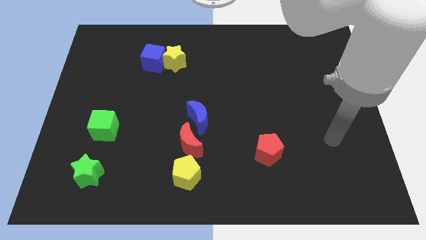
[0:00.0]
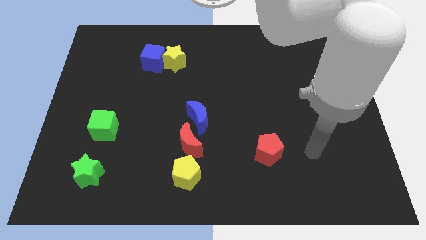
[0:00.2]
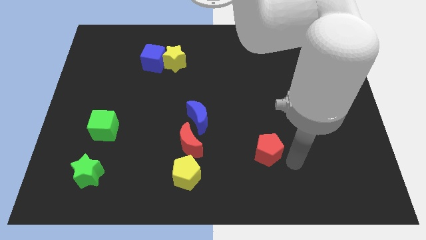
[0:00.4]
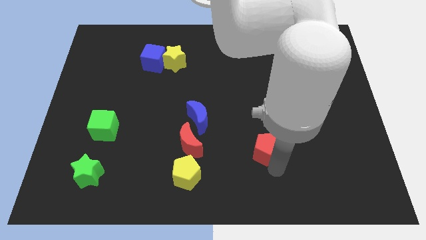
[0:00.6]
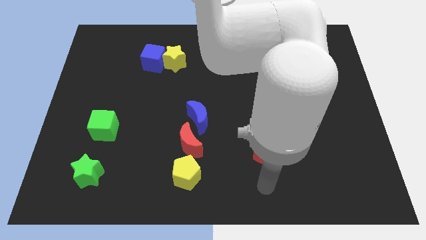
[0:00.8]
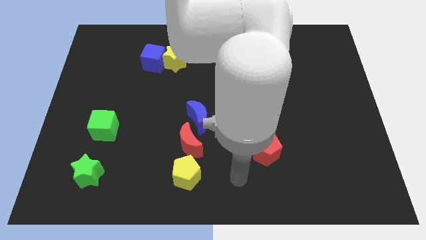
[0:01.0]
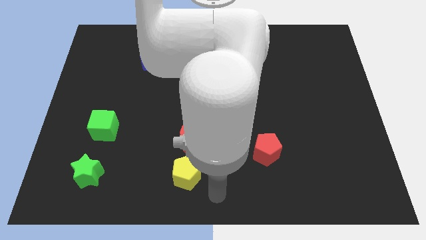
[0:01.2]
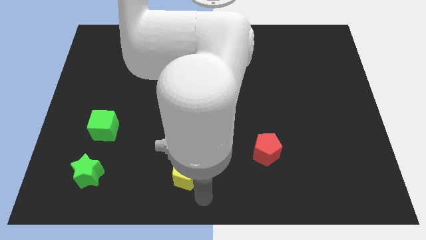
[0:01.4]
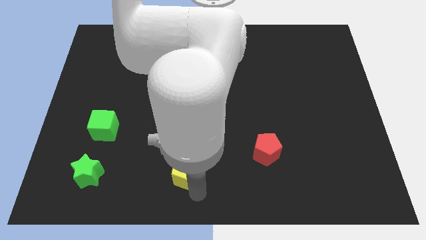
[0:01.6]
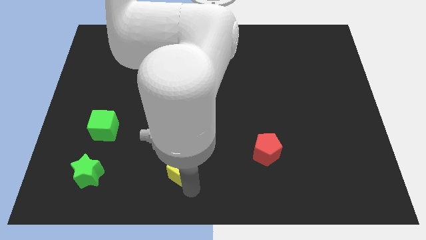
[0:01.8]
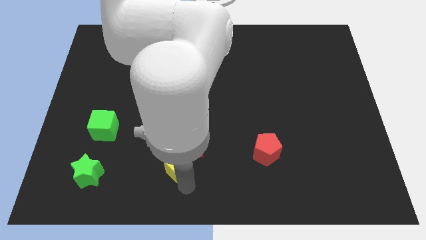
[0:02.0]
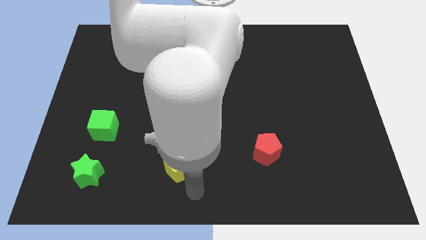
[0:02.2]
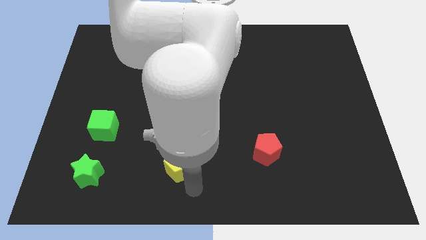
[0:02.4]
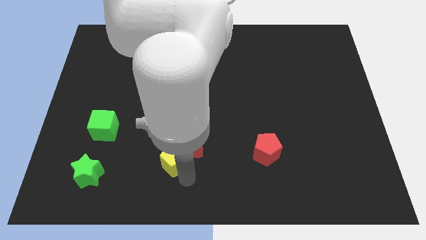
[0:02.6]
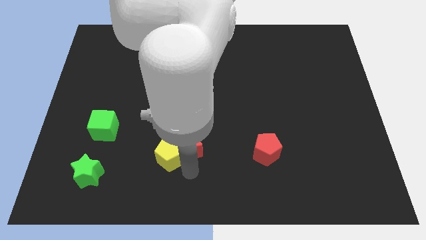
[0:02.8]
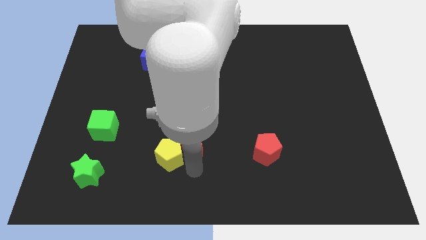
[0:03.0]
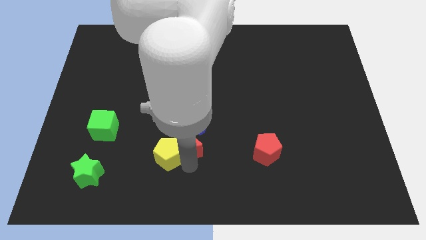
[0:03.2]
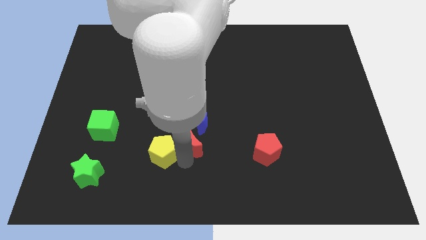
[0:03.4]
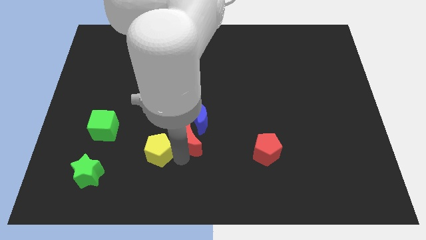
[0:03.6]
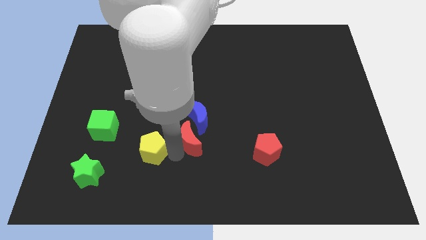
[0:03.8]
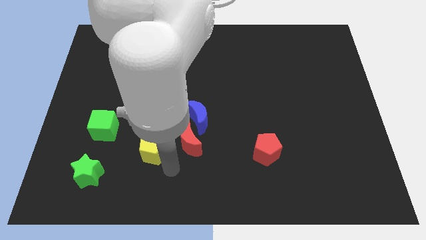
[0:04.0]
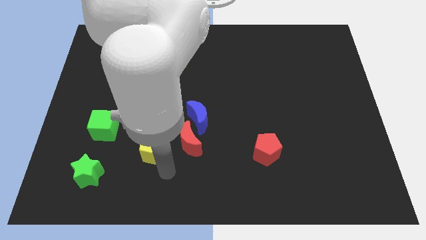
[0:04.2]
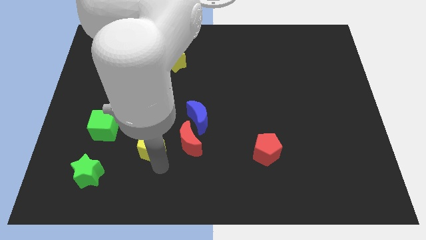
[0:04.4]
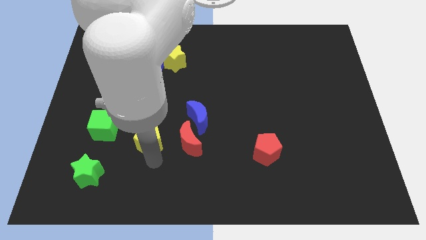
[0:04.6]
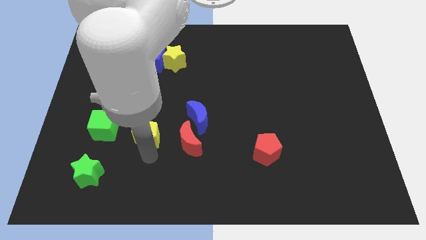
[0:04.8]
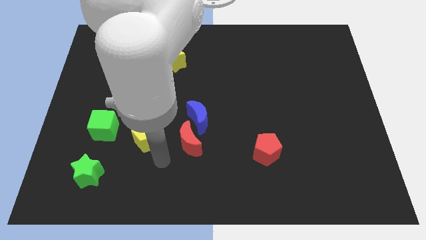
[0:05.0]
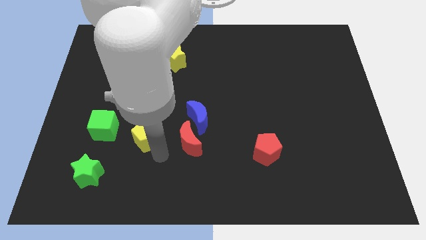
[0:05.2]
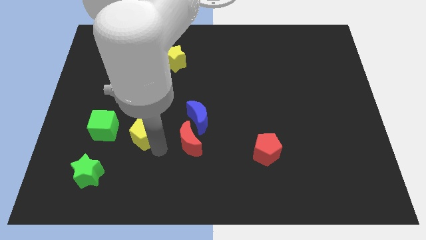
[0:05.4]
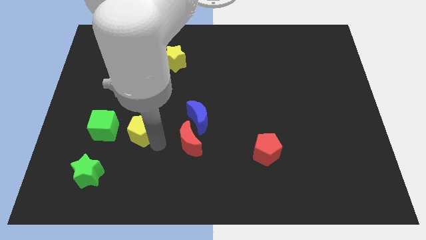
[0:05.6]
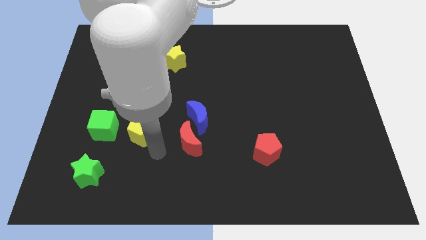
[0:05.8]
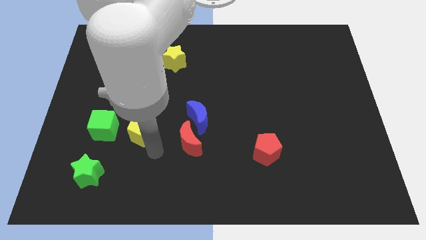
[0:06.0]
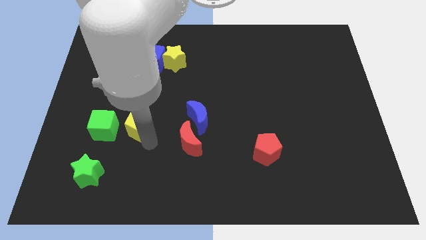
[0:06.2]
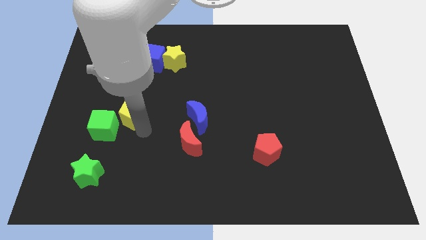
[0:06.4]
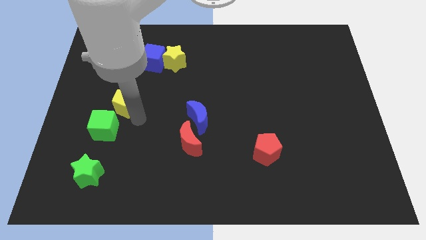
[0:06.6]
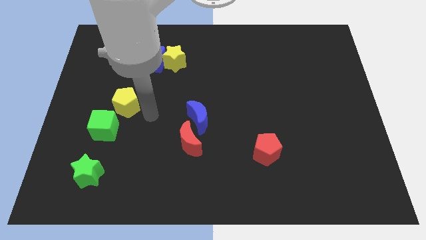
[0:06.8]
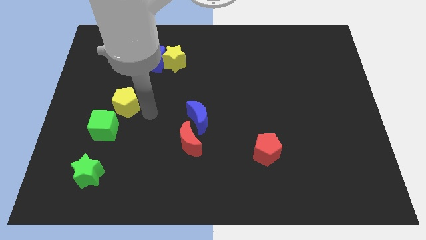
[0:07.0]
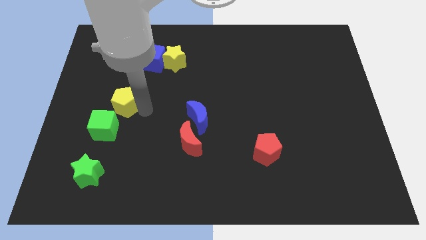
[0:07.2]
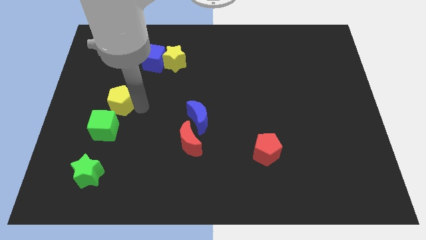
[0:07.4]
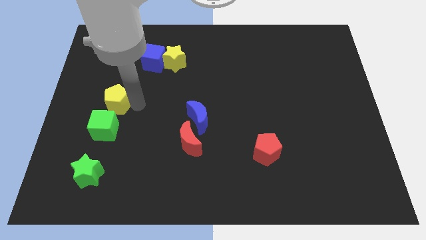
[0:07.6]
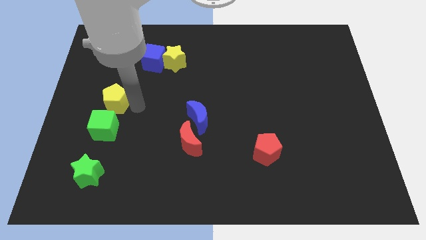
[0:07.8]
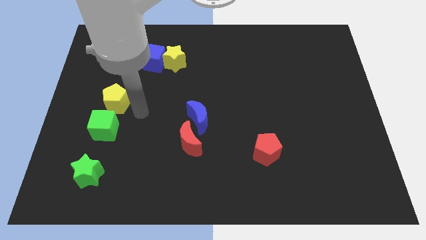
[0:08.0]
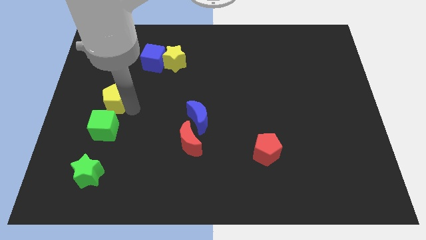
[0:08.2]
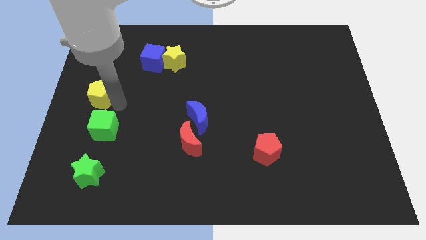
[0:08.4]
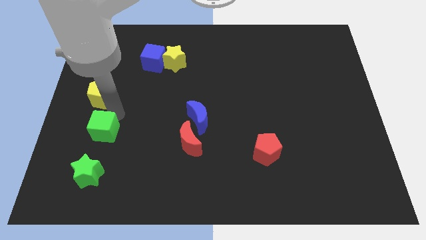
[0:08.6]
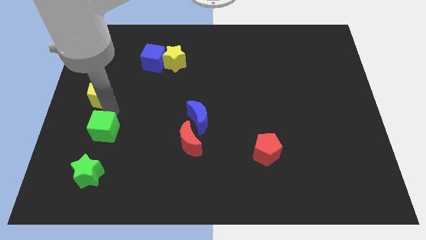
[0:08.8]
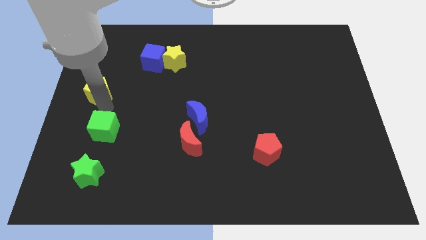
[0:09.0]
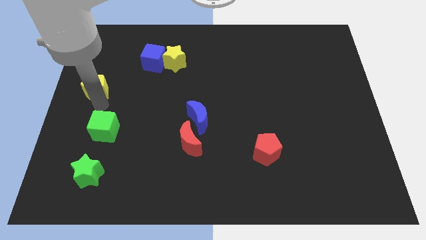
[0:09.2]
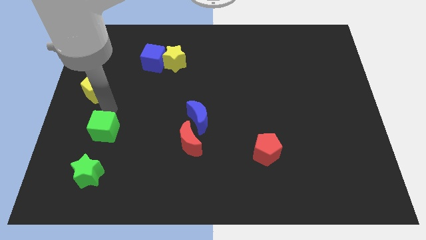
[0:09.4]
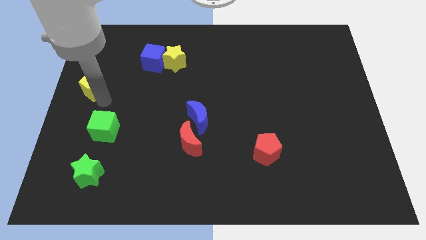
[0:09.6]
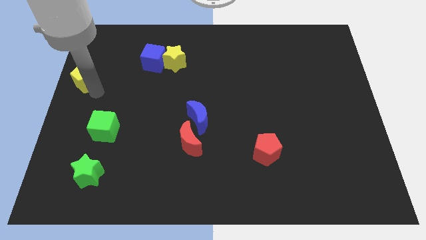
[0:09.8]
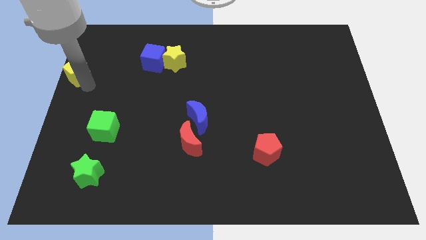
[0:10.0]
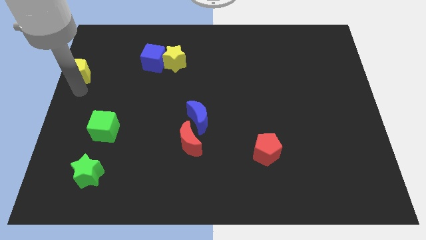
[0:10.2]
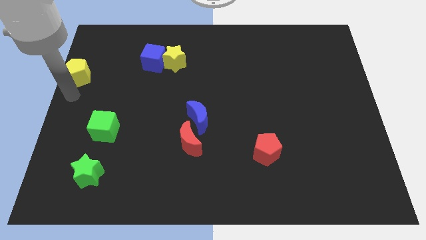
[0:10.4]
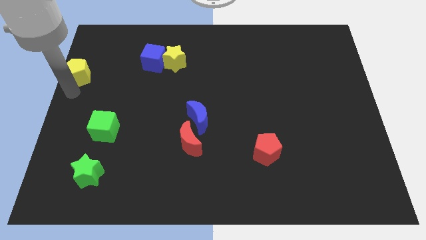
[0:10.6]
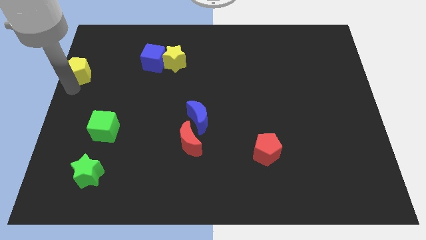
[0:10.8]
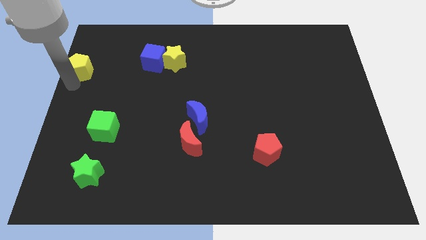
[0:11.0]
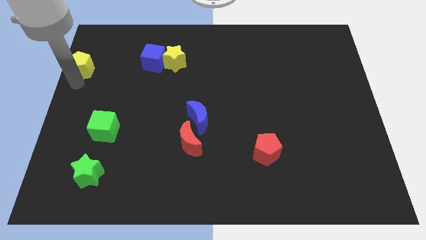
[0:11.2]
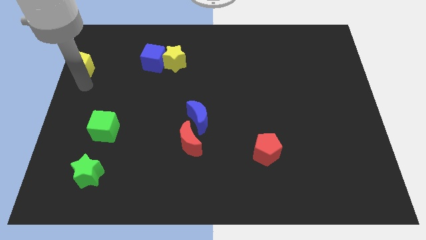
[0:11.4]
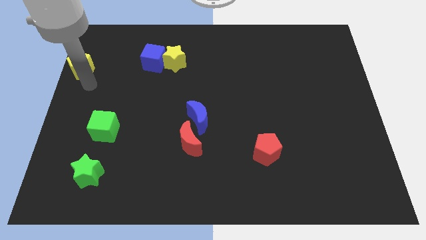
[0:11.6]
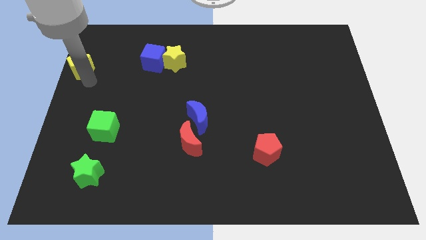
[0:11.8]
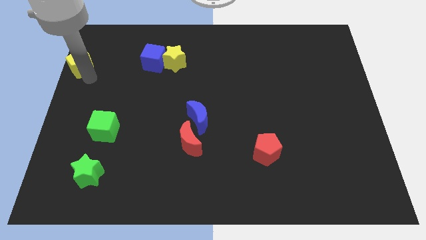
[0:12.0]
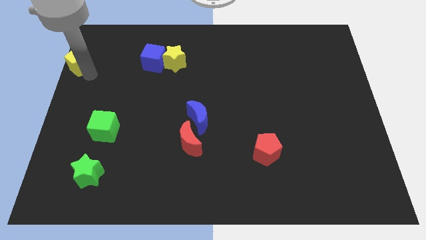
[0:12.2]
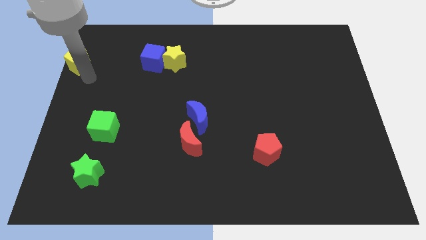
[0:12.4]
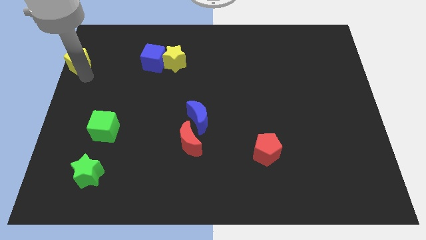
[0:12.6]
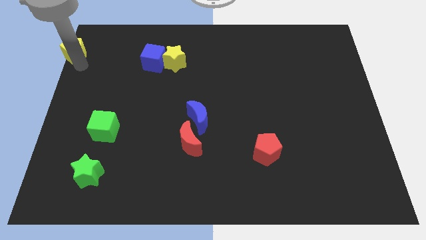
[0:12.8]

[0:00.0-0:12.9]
move the yellow pentagon to the upper left corner

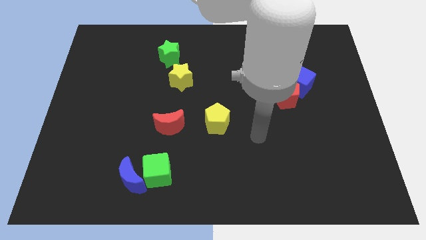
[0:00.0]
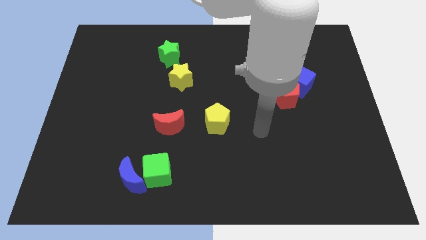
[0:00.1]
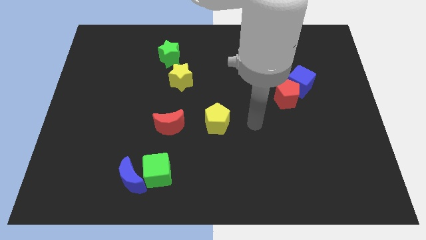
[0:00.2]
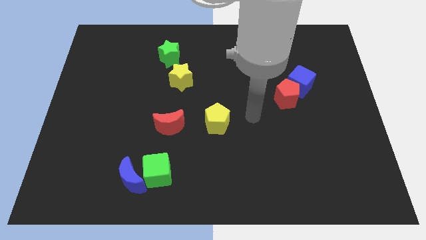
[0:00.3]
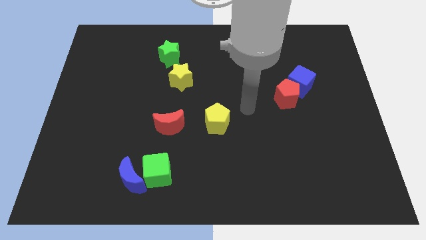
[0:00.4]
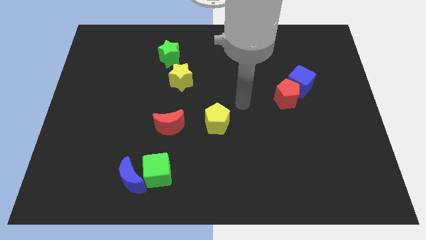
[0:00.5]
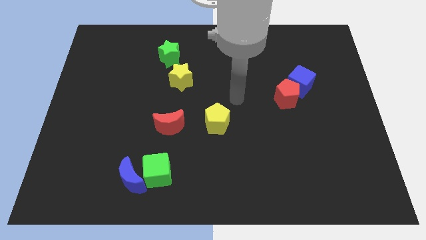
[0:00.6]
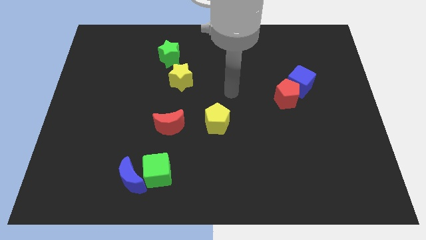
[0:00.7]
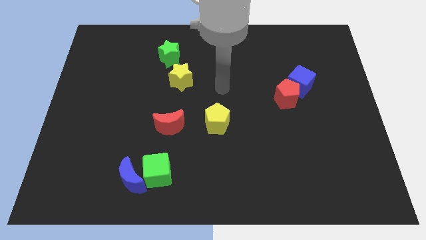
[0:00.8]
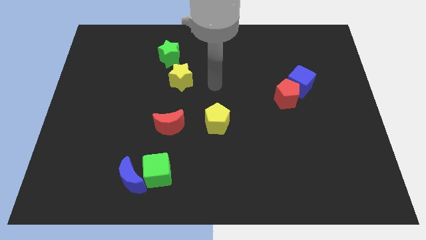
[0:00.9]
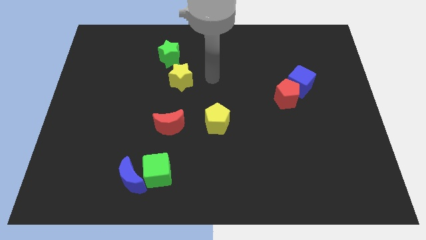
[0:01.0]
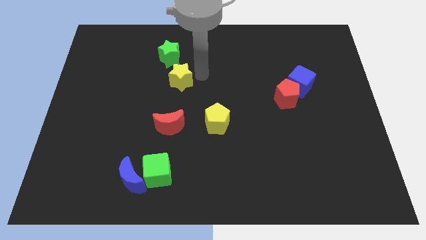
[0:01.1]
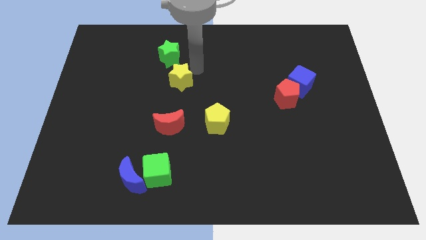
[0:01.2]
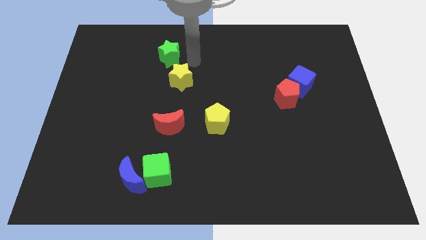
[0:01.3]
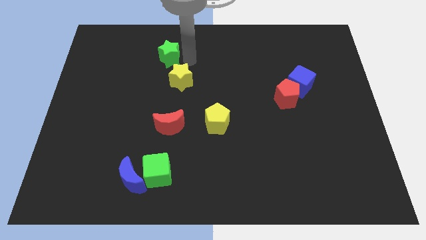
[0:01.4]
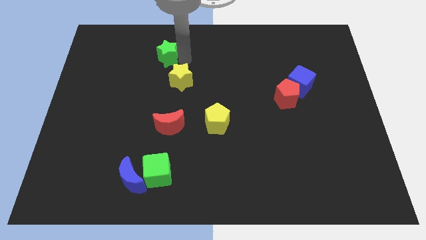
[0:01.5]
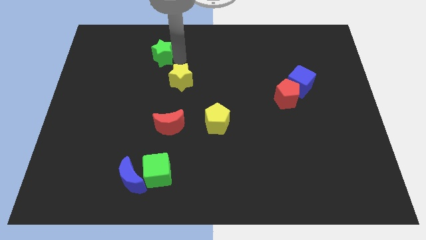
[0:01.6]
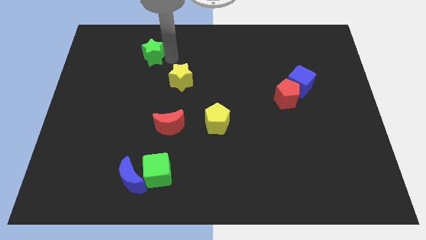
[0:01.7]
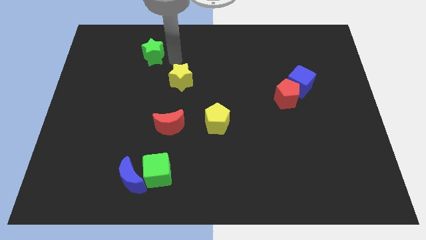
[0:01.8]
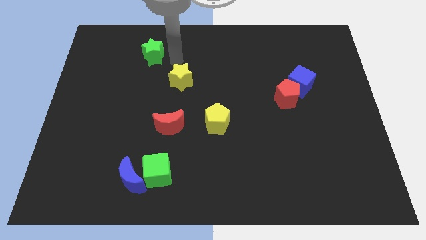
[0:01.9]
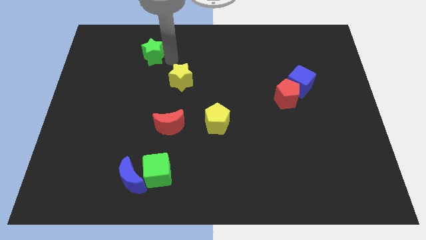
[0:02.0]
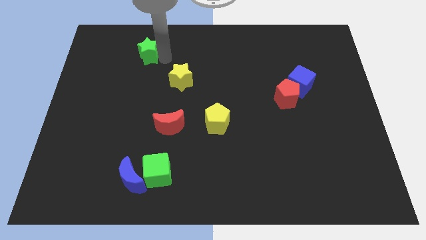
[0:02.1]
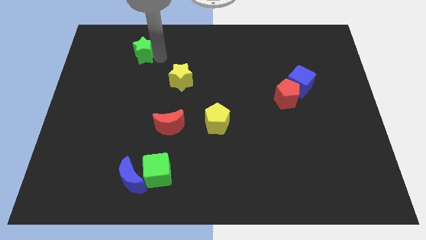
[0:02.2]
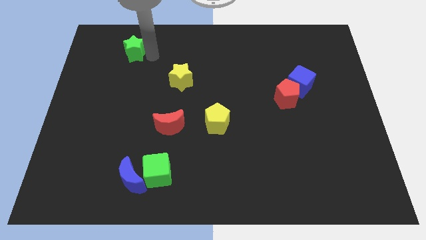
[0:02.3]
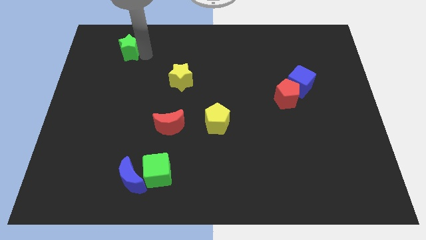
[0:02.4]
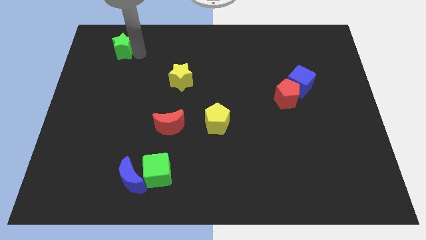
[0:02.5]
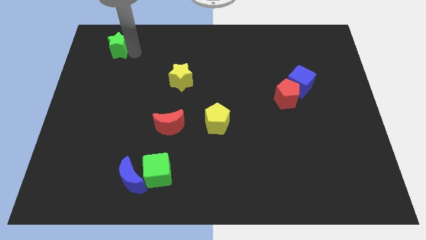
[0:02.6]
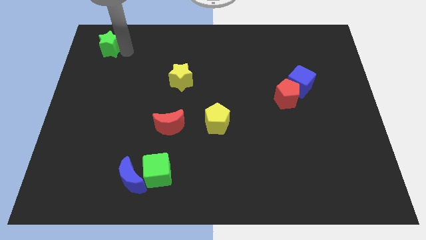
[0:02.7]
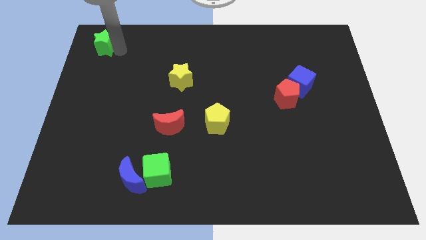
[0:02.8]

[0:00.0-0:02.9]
slide the green star to the top left
